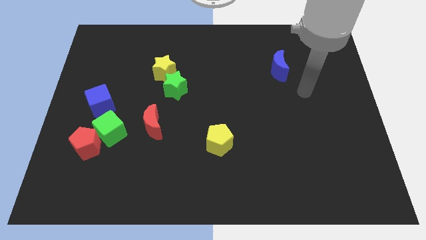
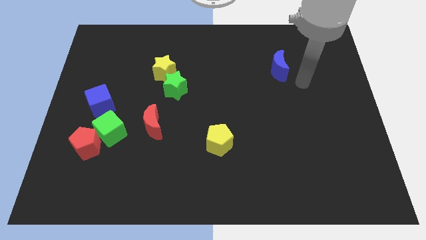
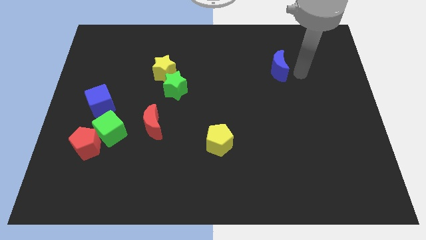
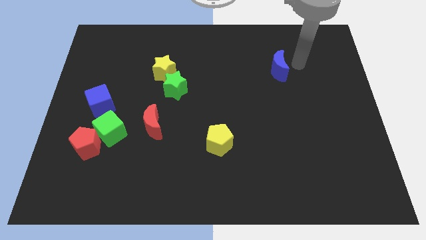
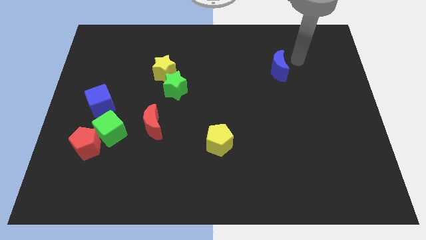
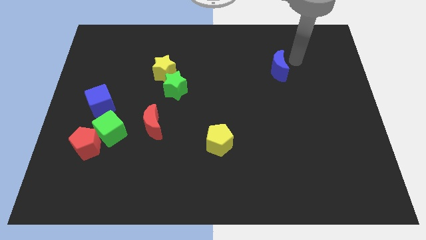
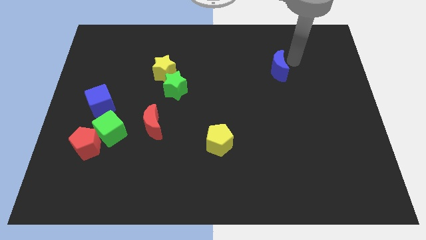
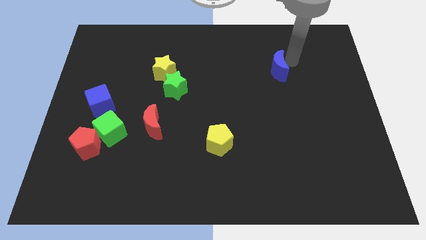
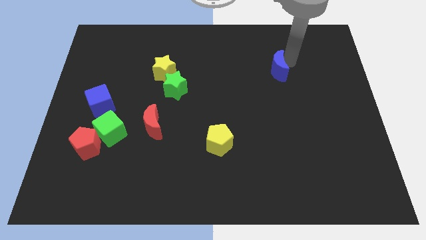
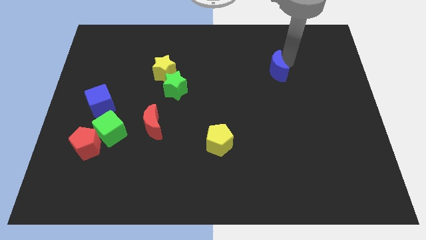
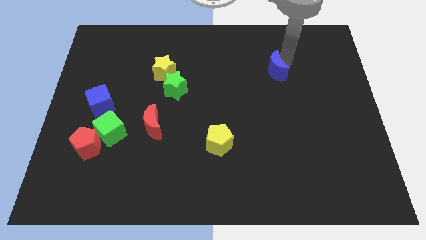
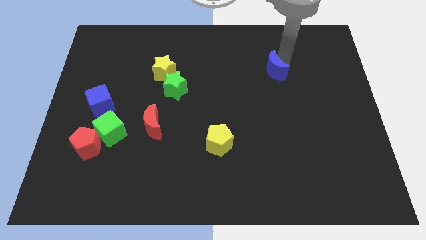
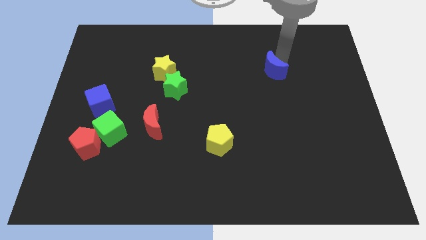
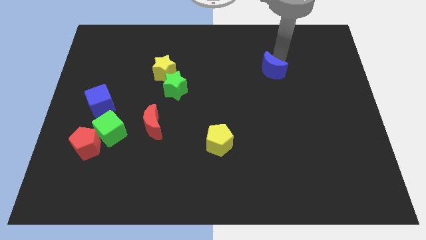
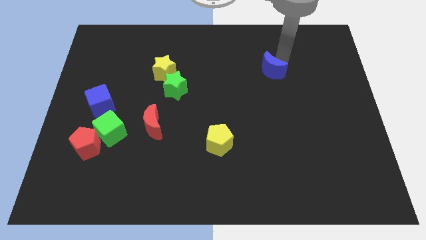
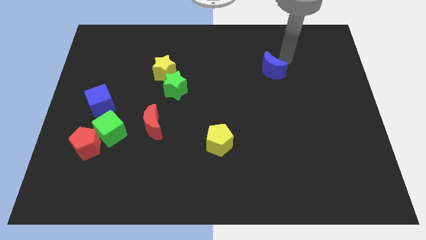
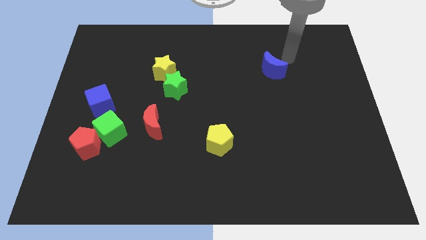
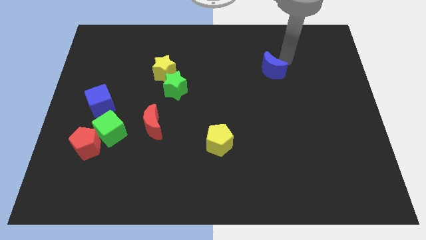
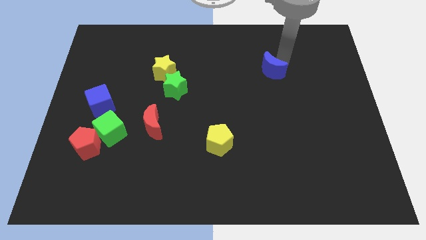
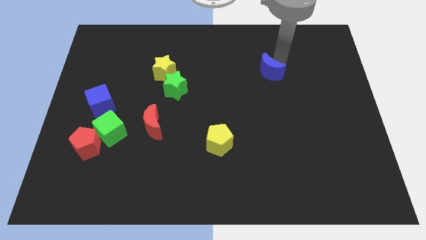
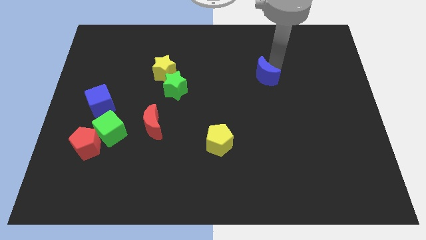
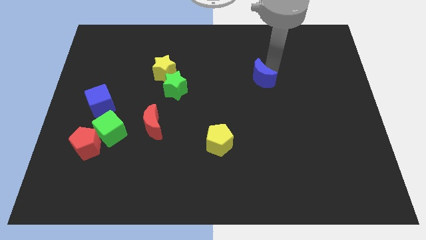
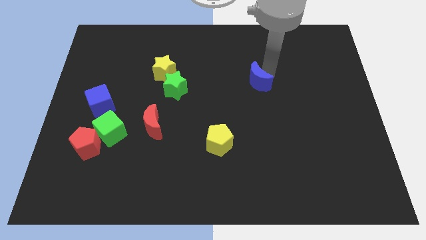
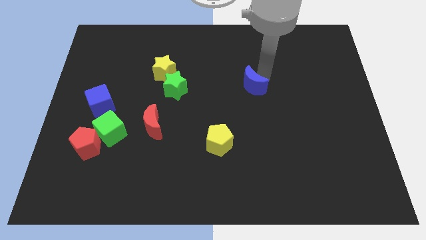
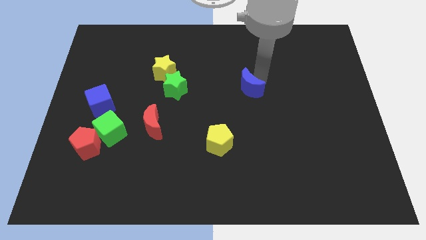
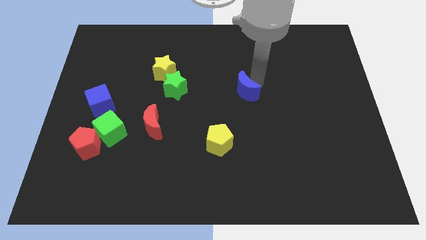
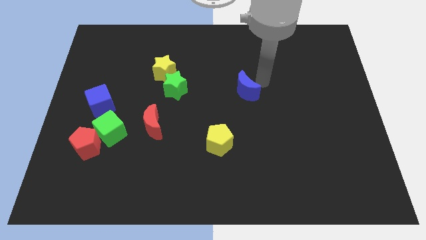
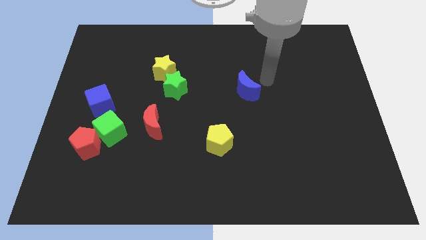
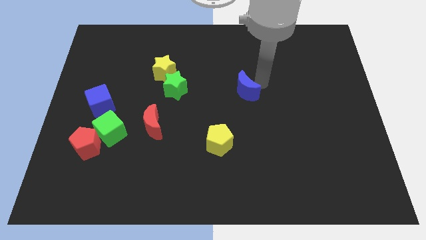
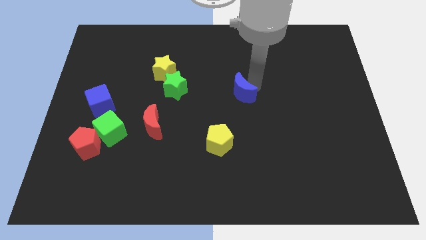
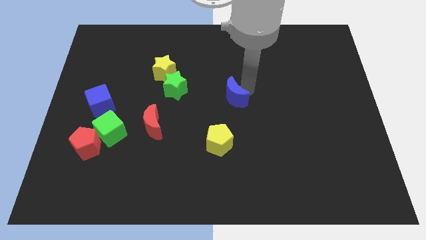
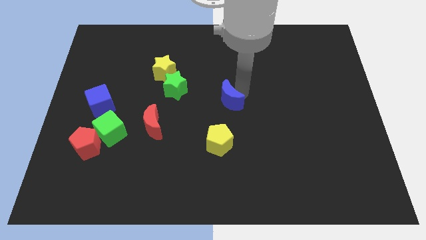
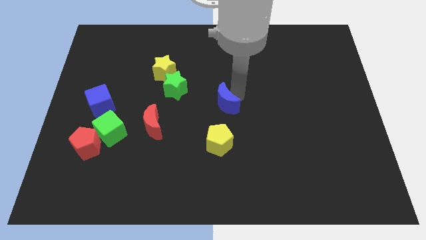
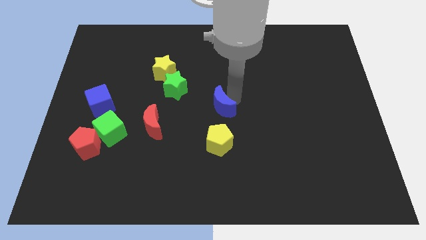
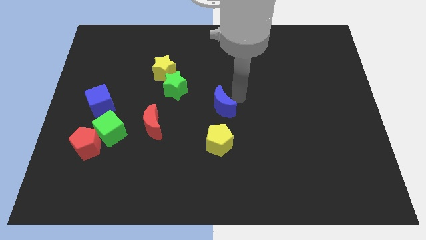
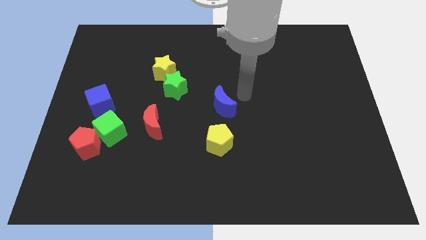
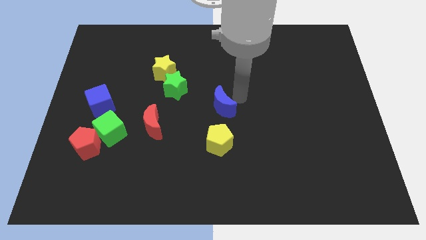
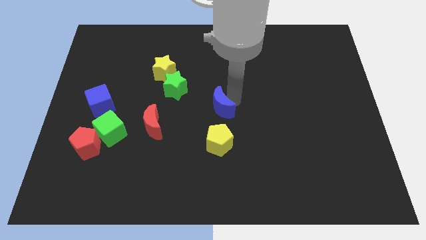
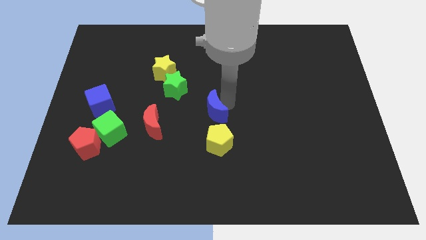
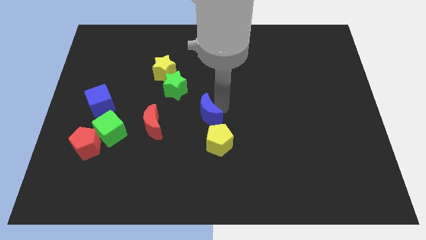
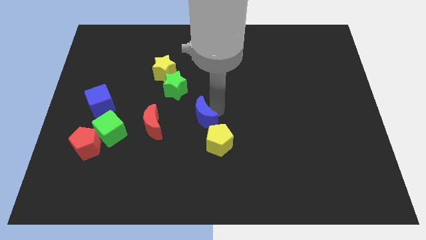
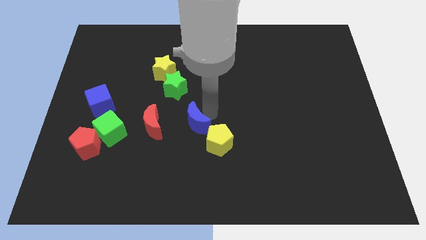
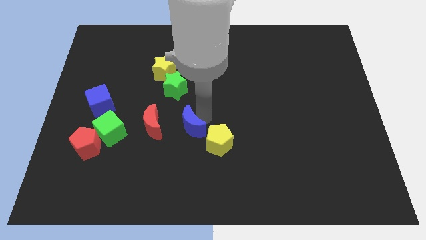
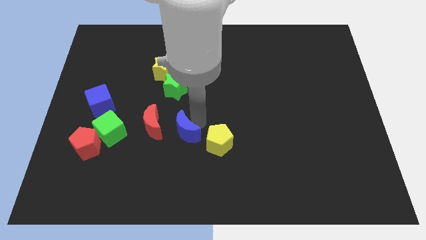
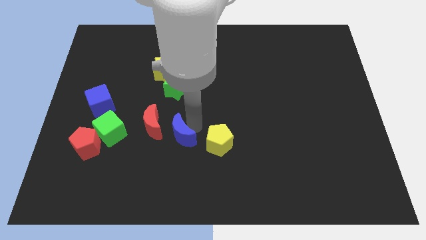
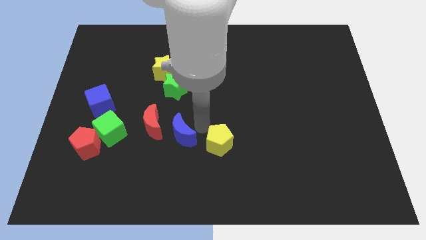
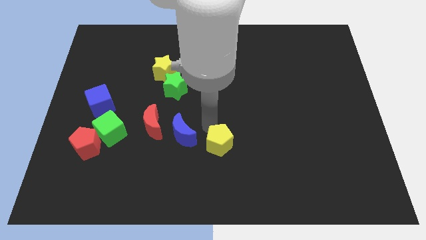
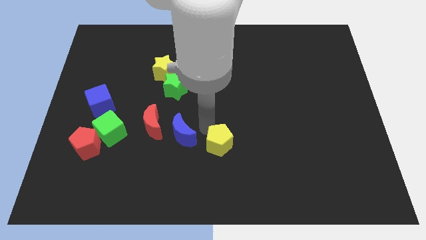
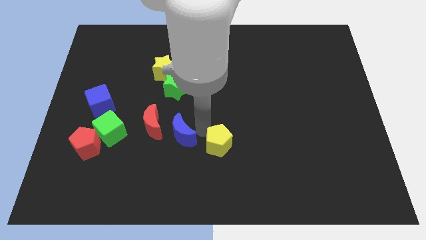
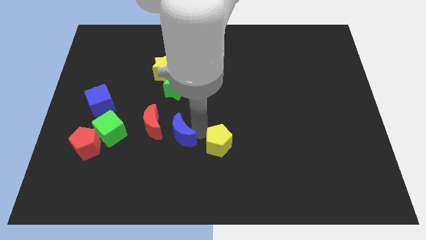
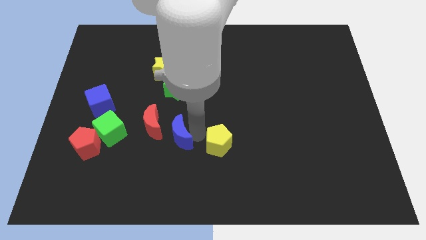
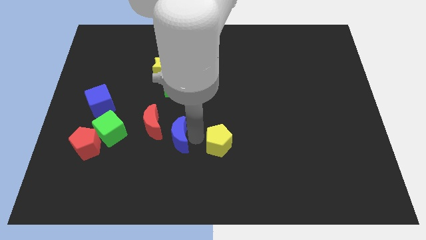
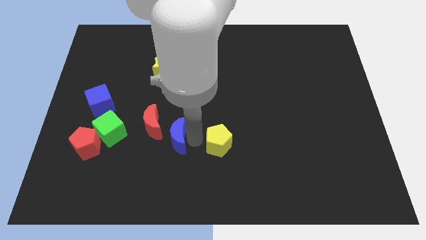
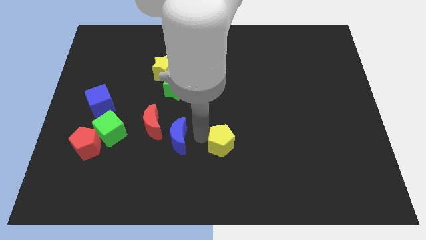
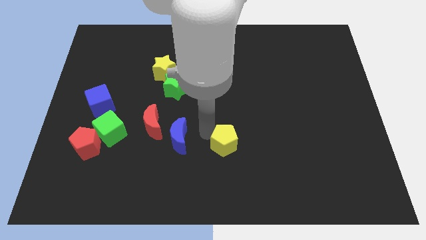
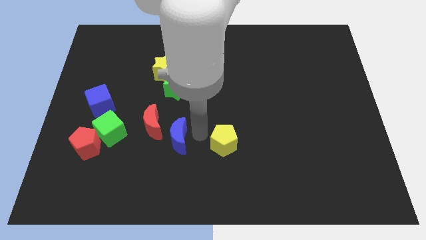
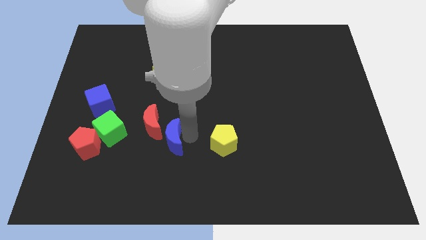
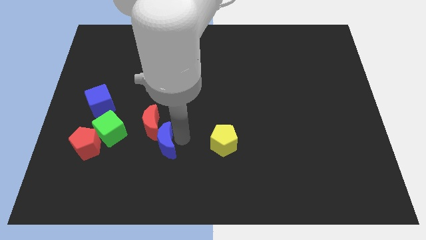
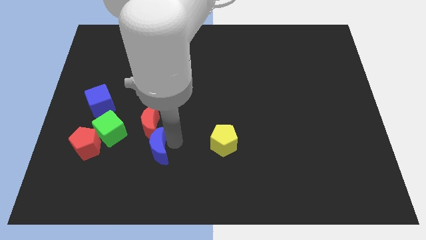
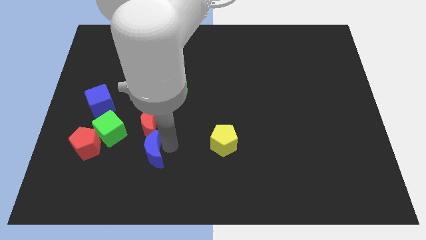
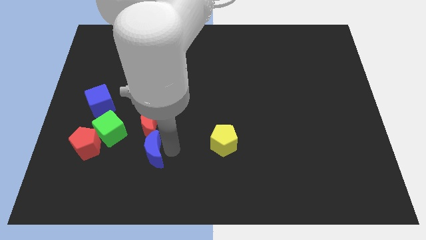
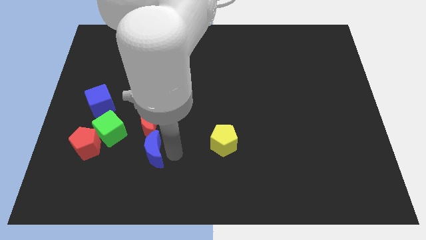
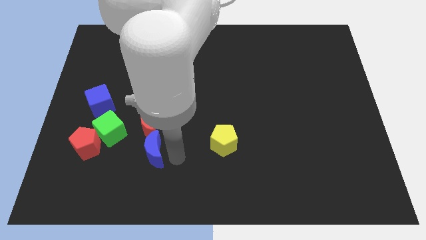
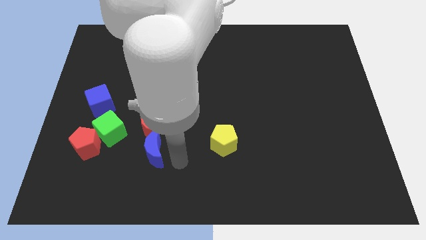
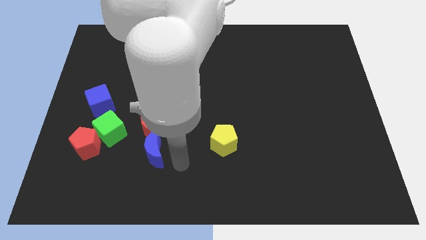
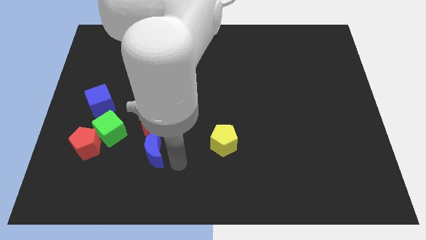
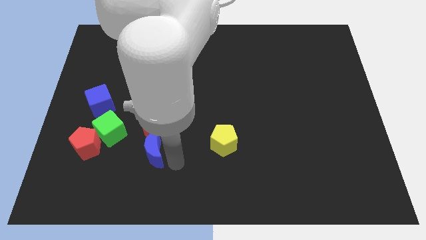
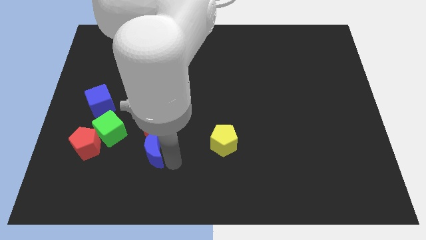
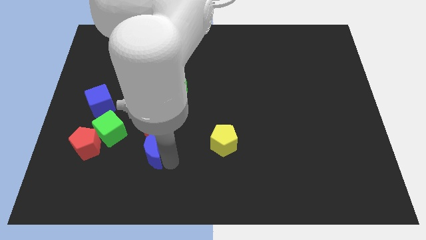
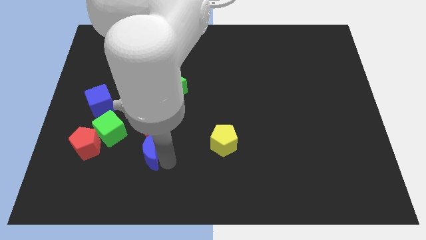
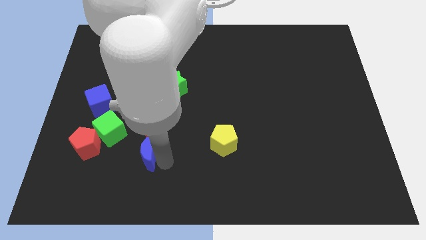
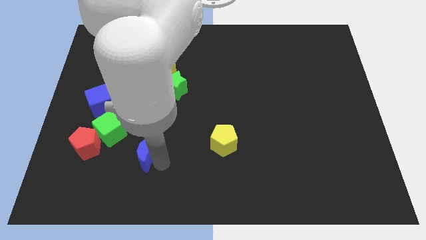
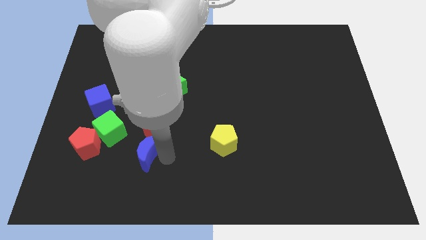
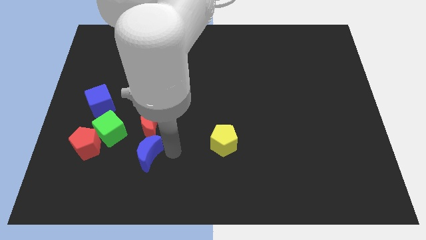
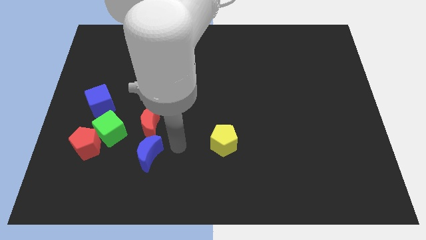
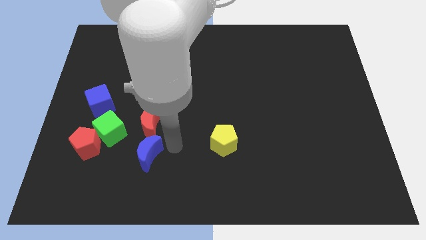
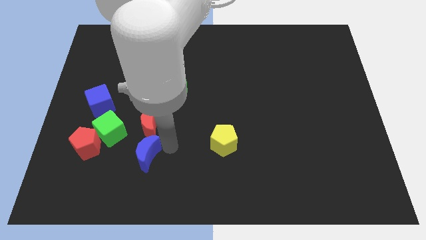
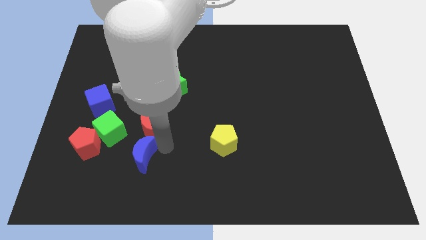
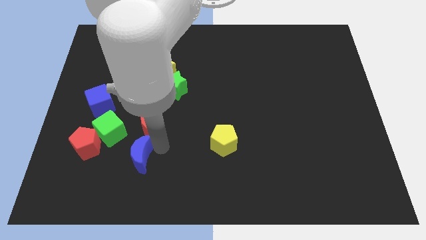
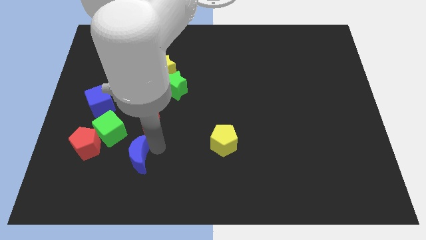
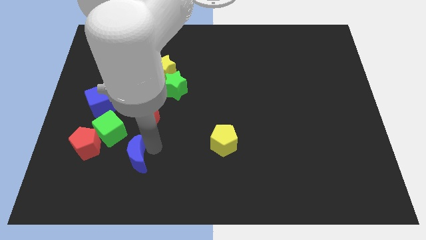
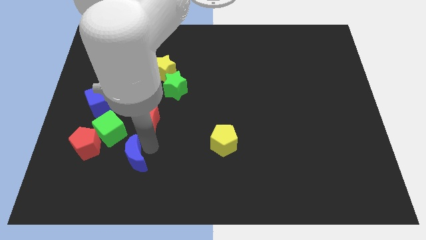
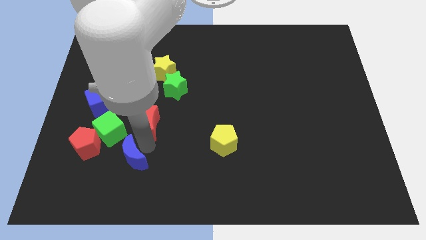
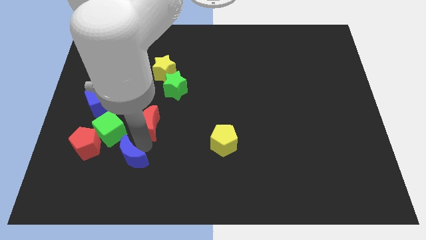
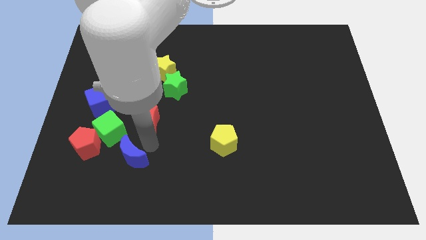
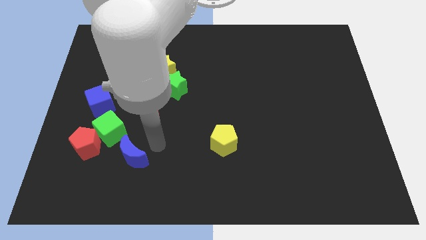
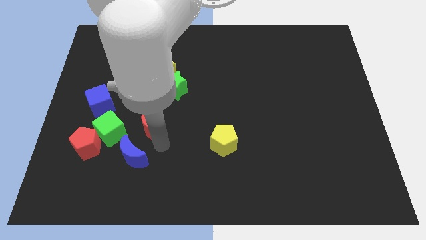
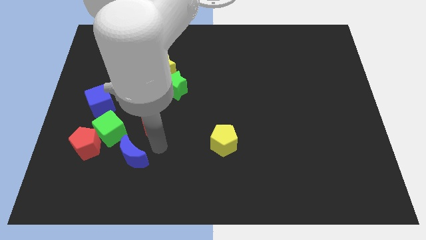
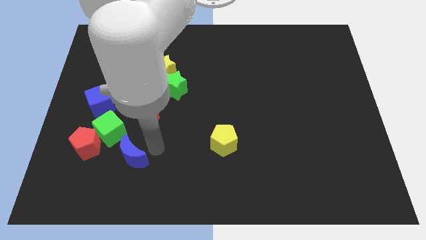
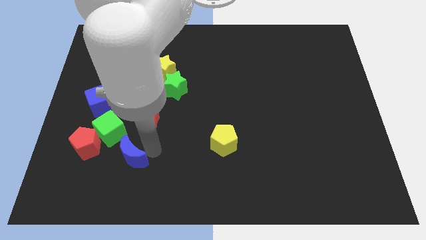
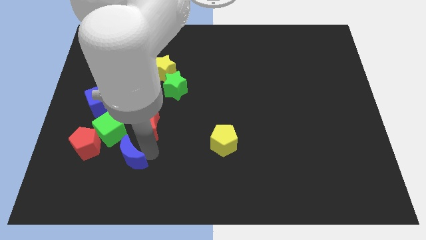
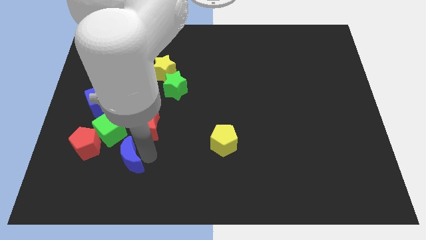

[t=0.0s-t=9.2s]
put the blue moon to the bottom right of the red pentagon
